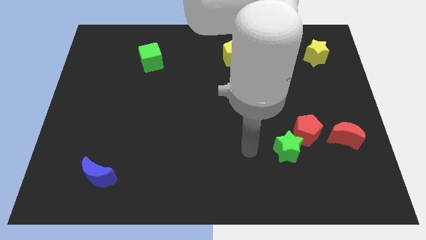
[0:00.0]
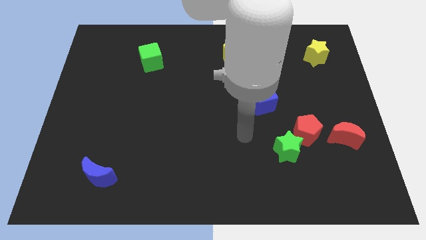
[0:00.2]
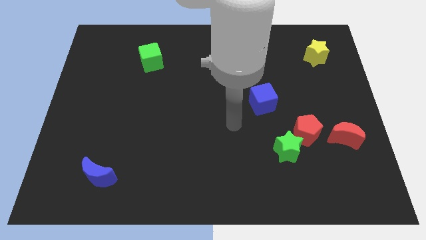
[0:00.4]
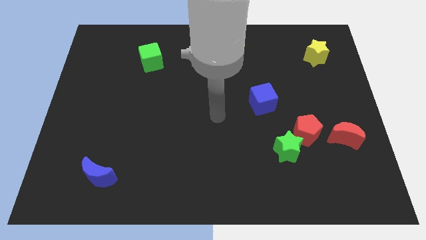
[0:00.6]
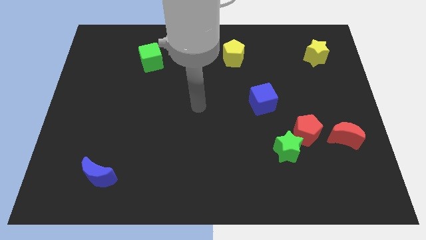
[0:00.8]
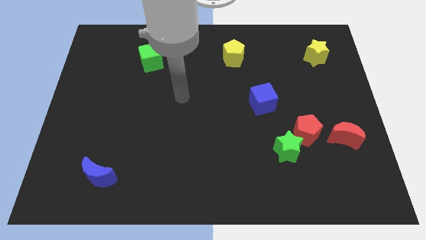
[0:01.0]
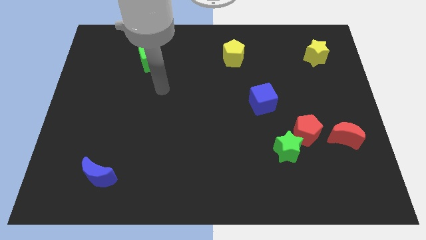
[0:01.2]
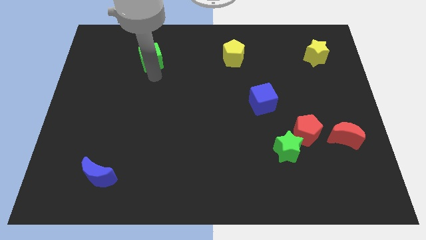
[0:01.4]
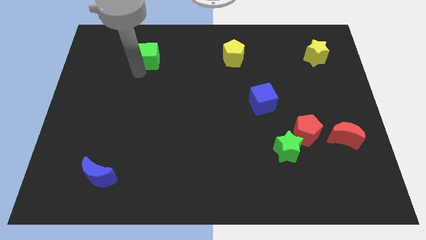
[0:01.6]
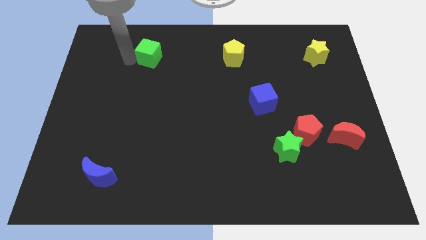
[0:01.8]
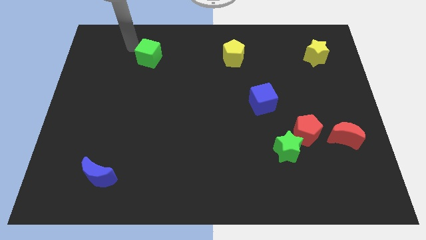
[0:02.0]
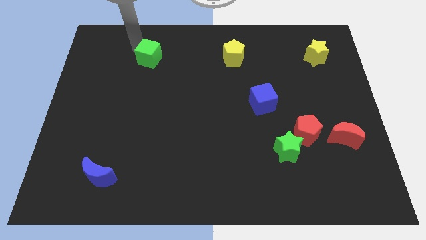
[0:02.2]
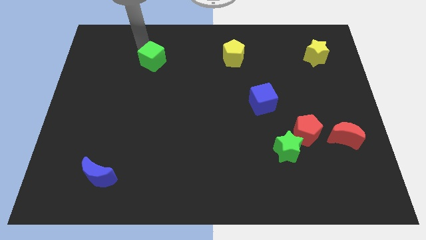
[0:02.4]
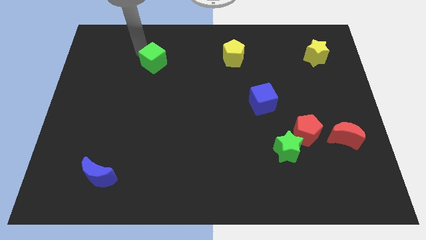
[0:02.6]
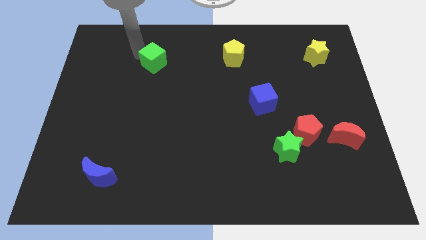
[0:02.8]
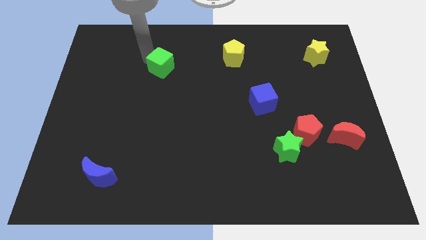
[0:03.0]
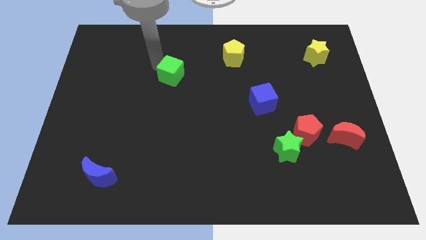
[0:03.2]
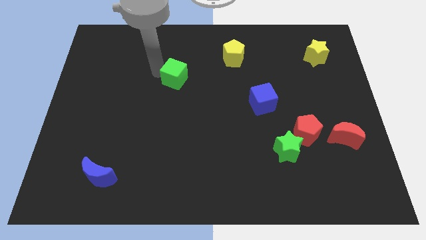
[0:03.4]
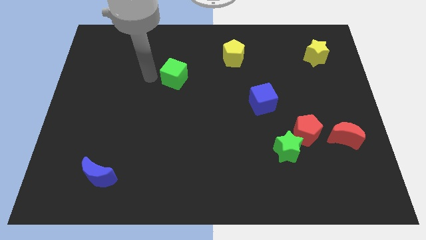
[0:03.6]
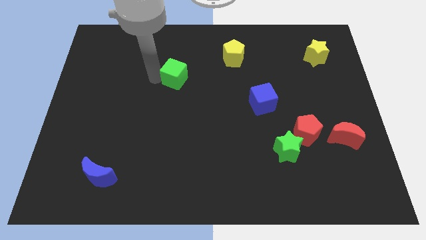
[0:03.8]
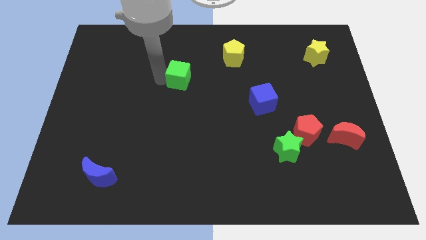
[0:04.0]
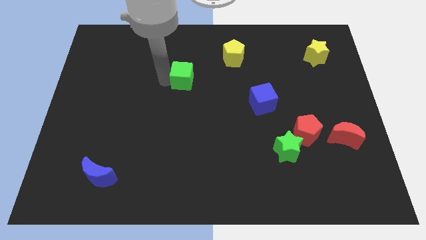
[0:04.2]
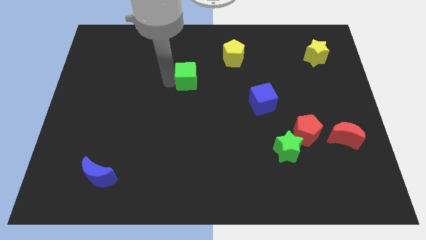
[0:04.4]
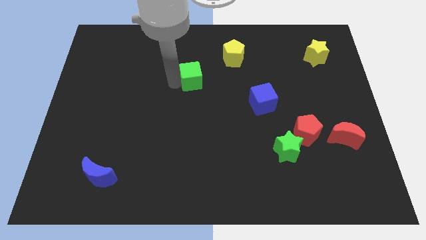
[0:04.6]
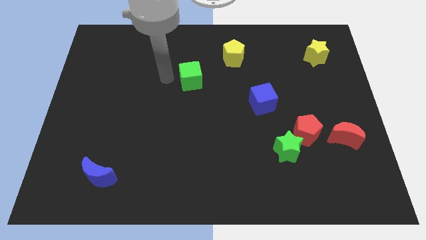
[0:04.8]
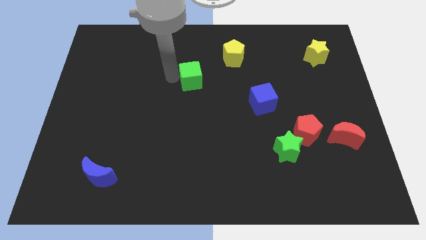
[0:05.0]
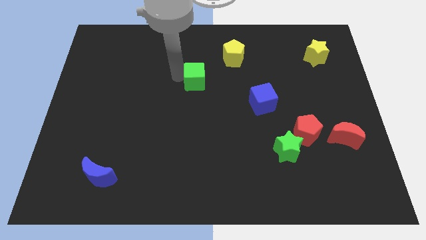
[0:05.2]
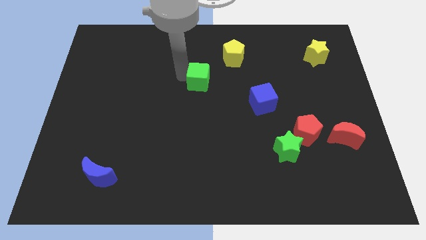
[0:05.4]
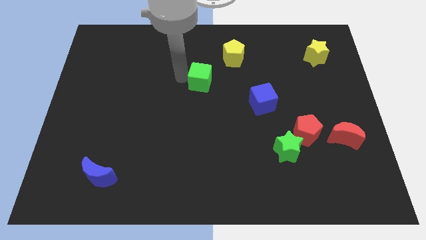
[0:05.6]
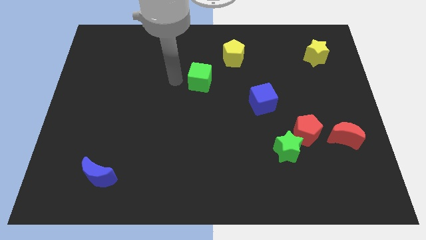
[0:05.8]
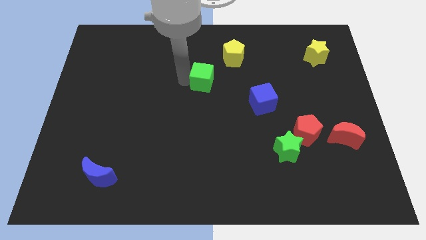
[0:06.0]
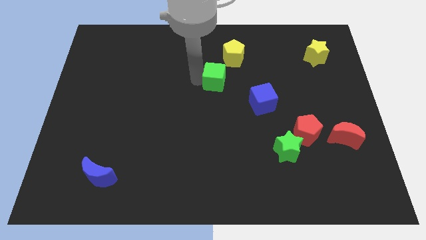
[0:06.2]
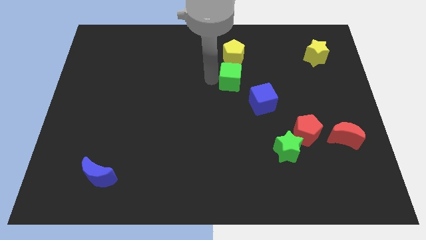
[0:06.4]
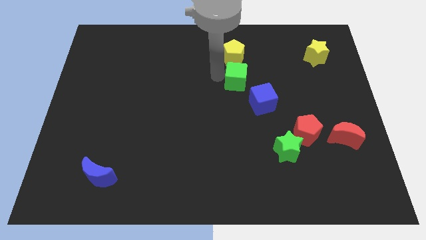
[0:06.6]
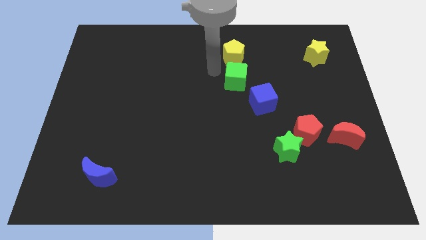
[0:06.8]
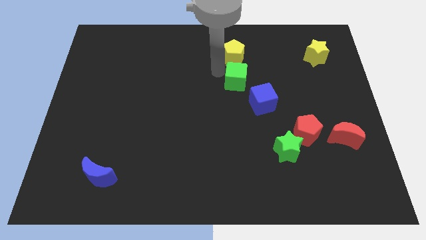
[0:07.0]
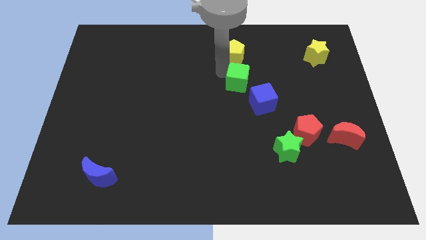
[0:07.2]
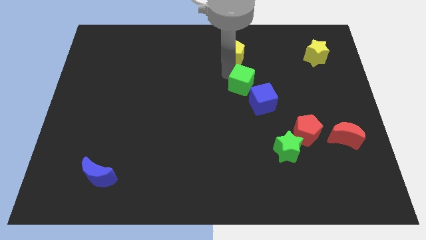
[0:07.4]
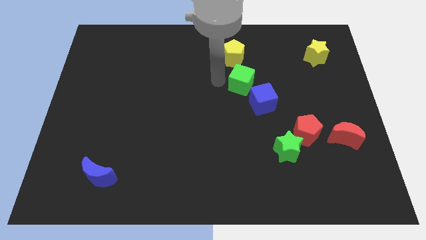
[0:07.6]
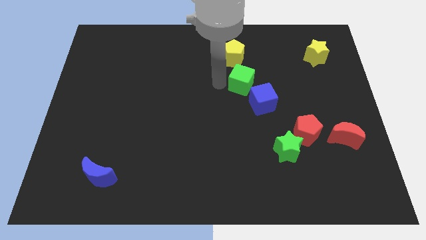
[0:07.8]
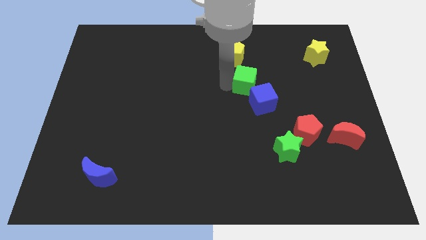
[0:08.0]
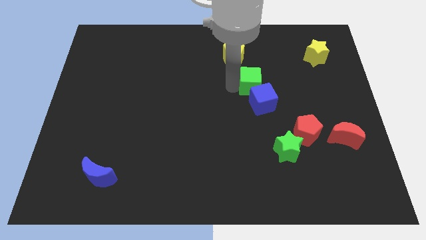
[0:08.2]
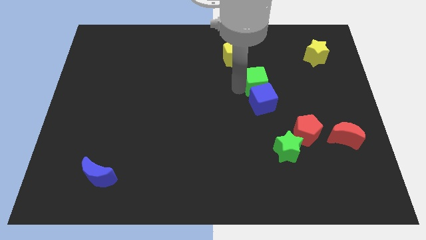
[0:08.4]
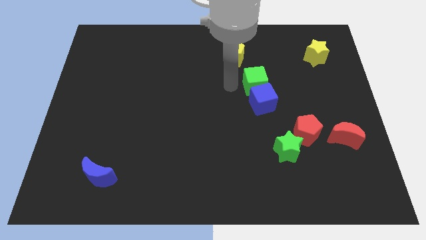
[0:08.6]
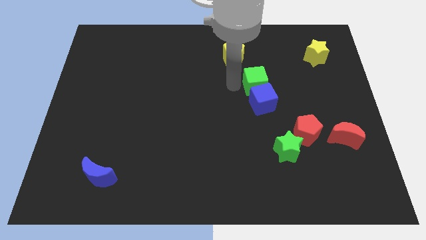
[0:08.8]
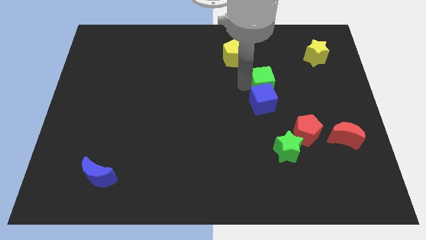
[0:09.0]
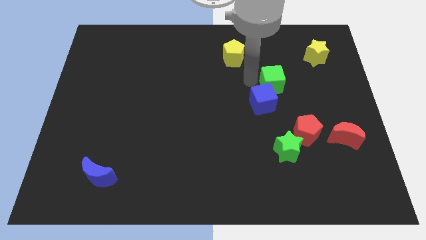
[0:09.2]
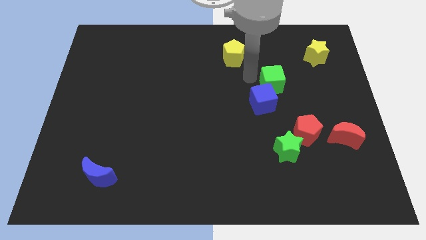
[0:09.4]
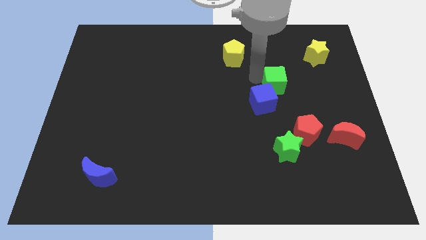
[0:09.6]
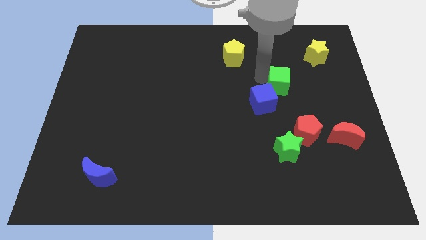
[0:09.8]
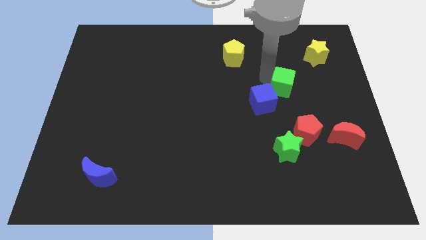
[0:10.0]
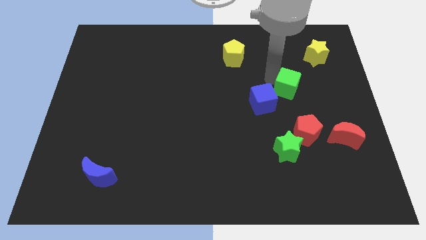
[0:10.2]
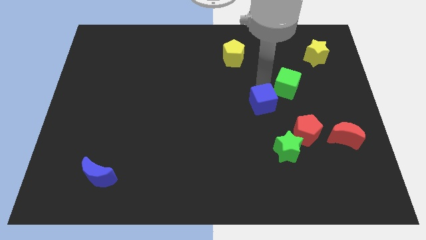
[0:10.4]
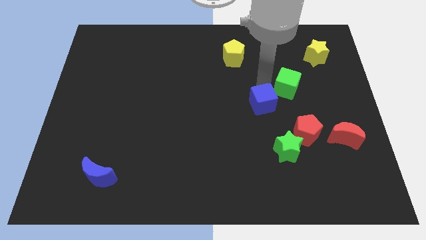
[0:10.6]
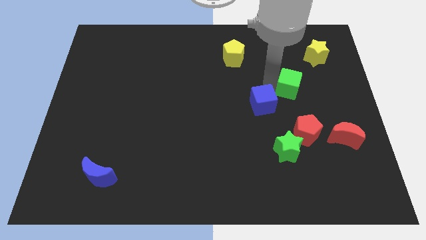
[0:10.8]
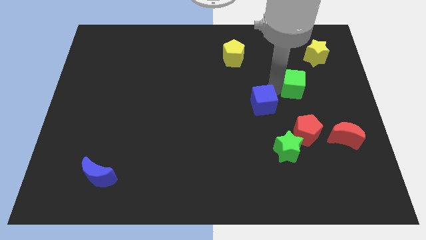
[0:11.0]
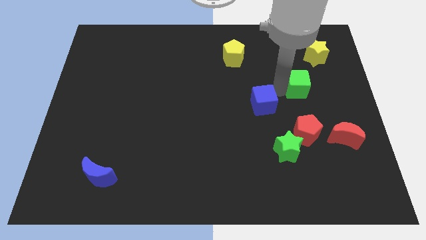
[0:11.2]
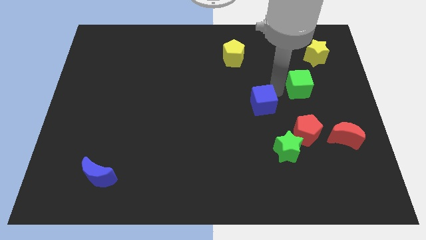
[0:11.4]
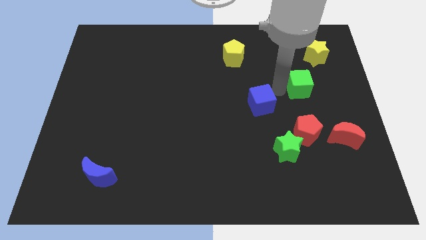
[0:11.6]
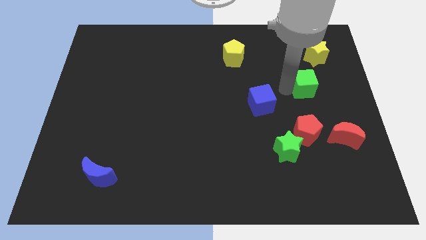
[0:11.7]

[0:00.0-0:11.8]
put the green cube to the bottom of the yellow star

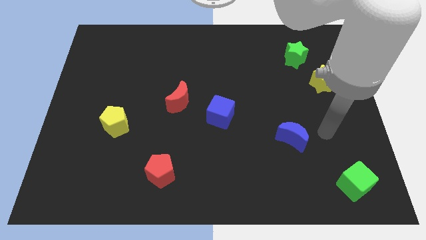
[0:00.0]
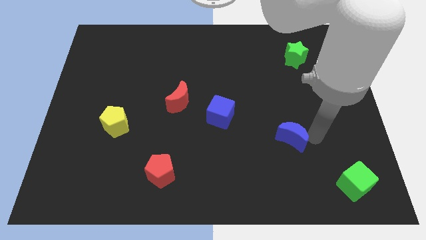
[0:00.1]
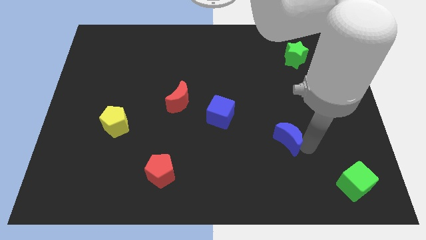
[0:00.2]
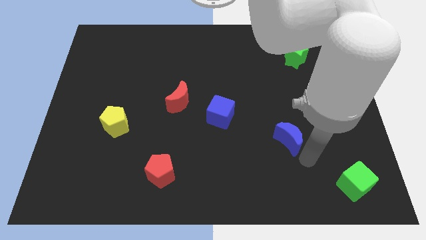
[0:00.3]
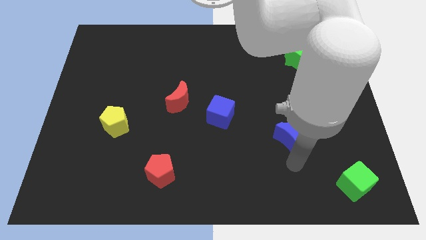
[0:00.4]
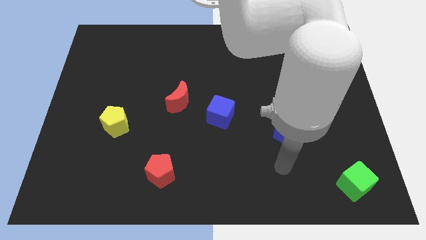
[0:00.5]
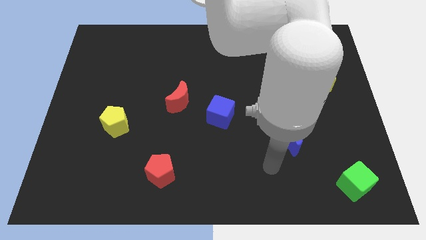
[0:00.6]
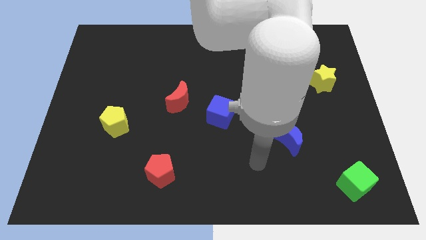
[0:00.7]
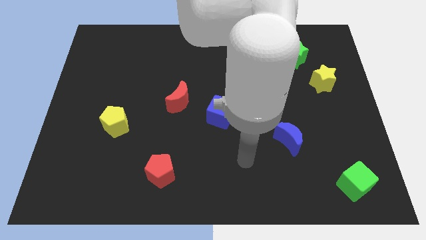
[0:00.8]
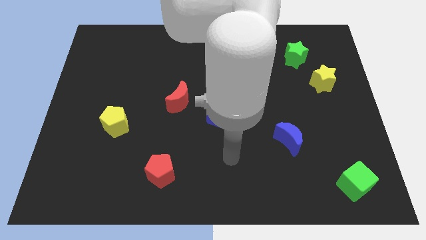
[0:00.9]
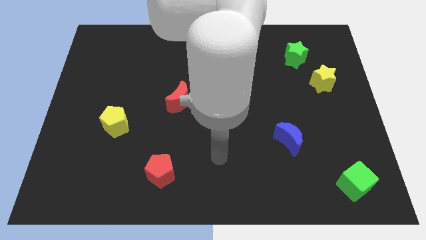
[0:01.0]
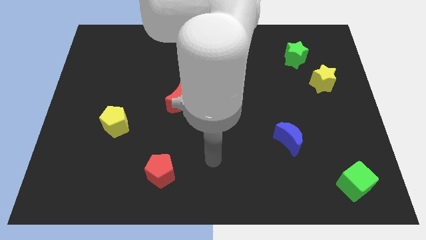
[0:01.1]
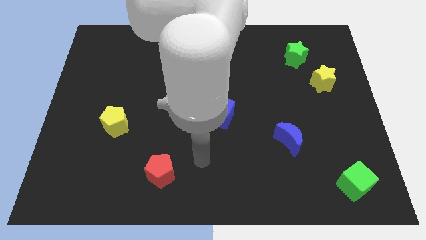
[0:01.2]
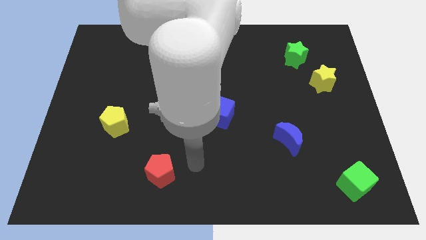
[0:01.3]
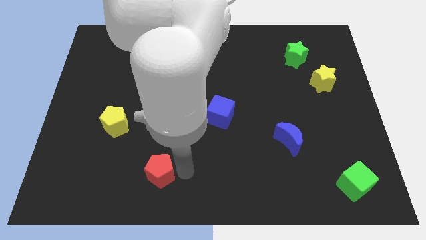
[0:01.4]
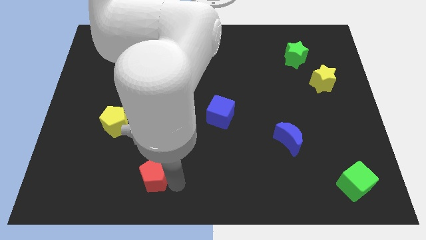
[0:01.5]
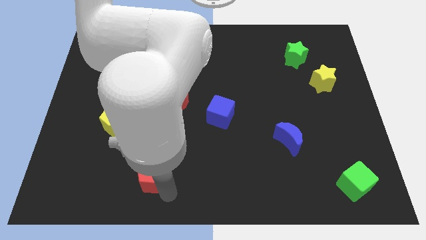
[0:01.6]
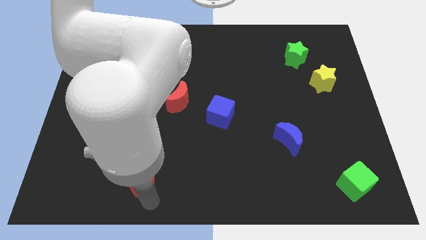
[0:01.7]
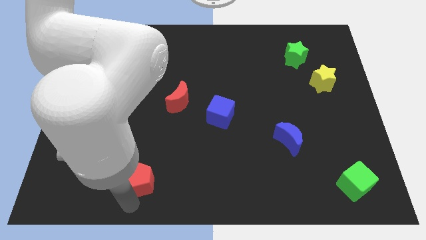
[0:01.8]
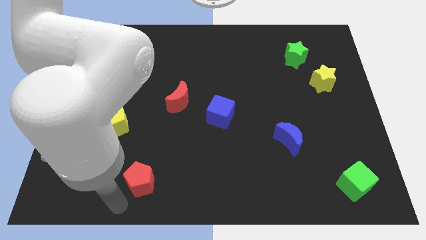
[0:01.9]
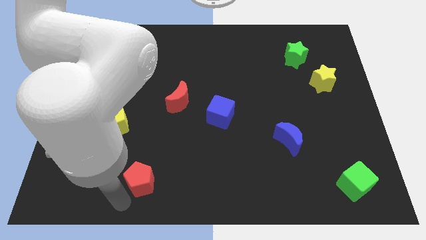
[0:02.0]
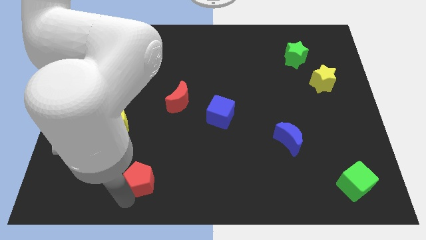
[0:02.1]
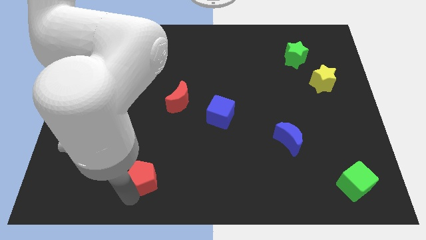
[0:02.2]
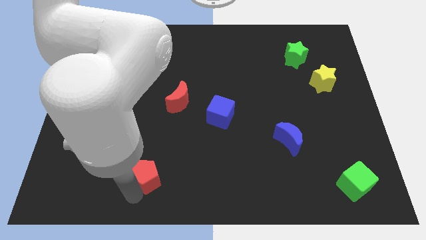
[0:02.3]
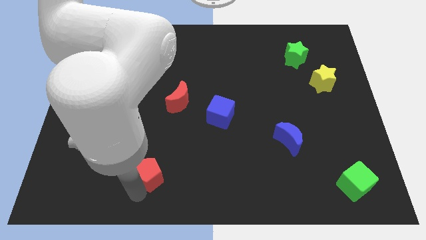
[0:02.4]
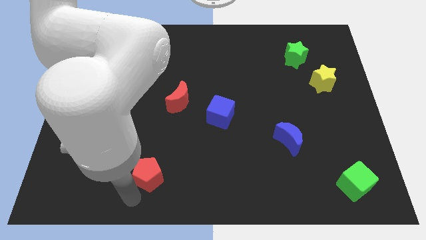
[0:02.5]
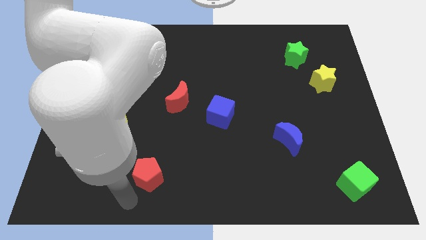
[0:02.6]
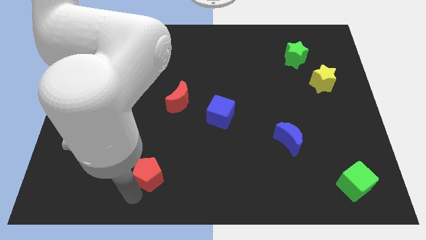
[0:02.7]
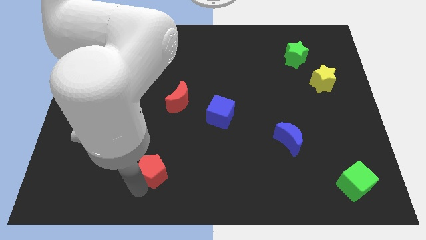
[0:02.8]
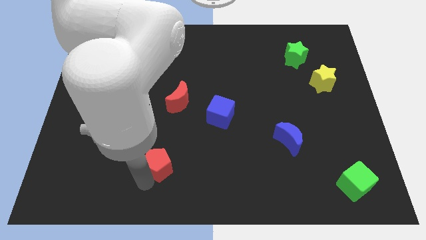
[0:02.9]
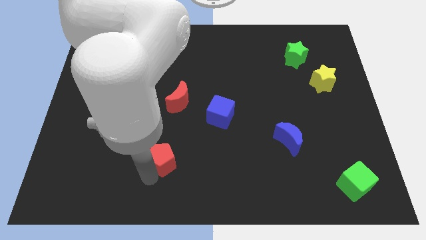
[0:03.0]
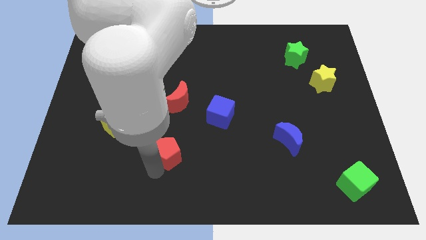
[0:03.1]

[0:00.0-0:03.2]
put the red pentagon to the bottom of the red moon
